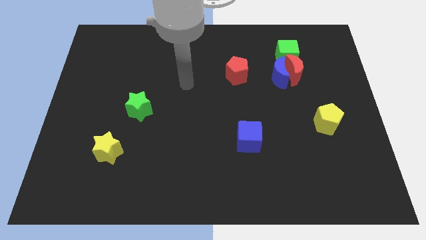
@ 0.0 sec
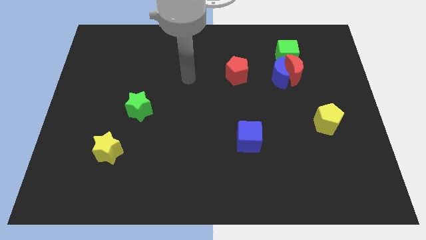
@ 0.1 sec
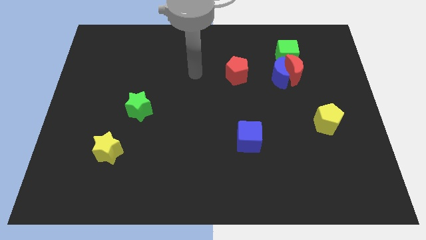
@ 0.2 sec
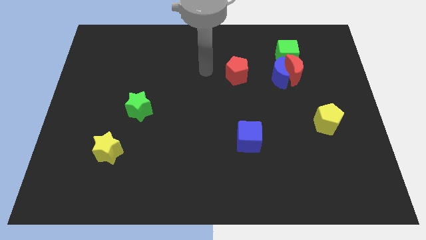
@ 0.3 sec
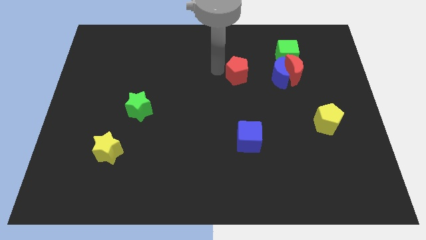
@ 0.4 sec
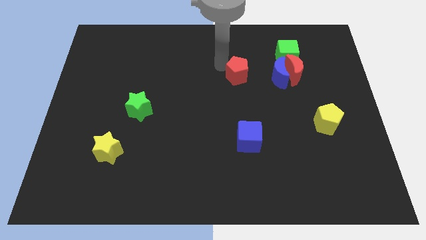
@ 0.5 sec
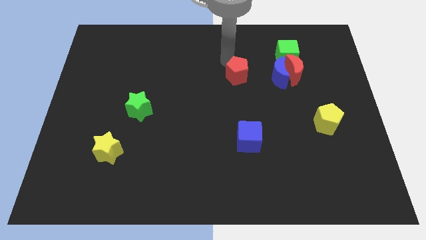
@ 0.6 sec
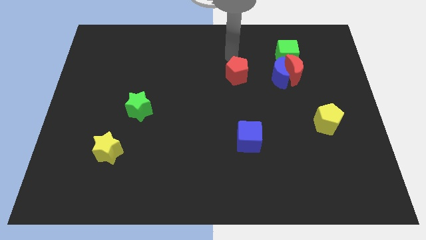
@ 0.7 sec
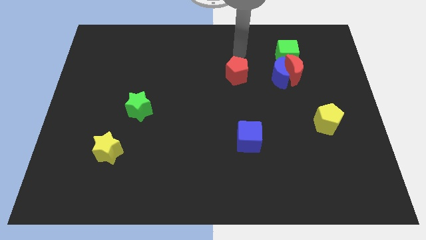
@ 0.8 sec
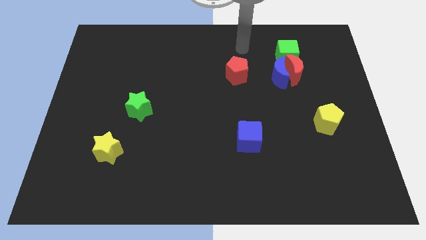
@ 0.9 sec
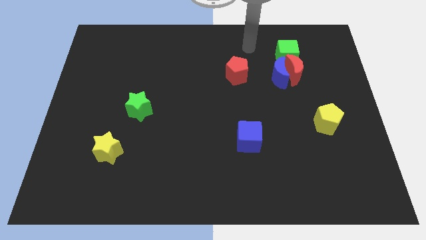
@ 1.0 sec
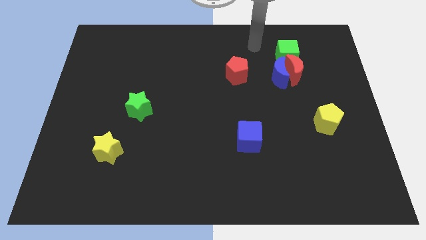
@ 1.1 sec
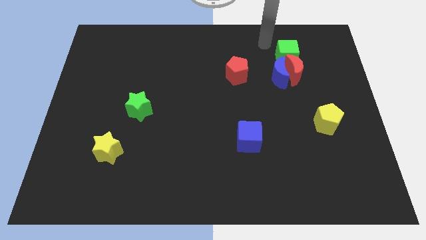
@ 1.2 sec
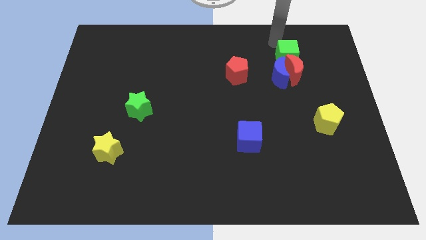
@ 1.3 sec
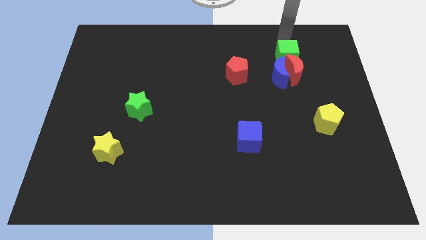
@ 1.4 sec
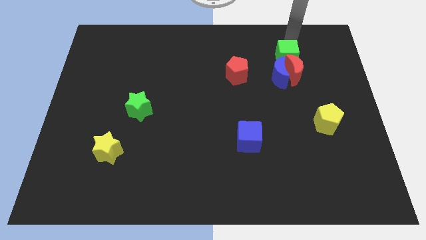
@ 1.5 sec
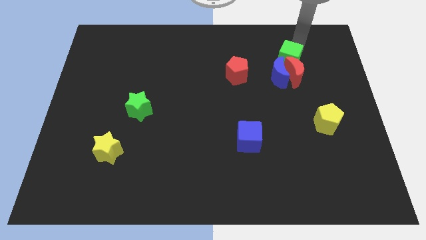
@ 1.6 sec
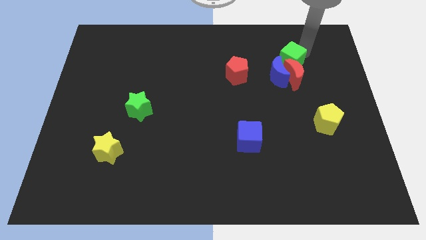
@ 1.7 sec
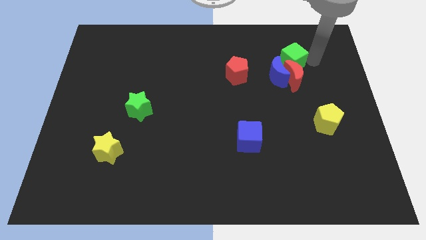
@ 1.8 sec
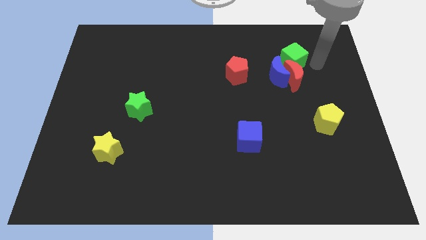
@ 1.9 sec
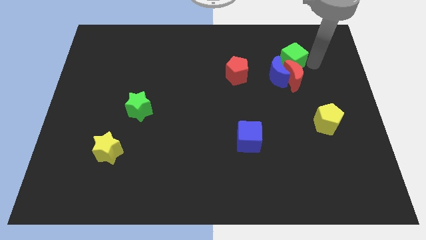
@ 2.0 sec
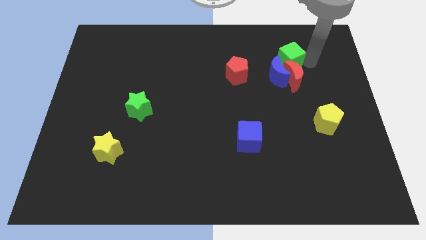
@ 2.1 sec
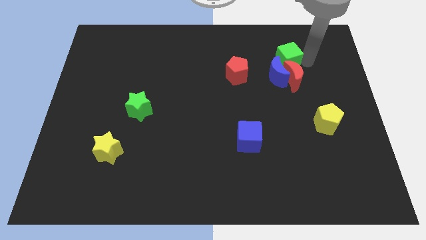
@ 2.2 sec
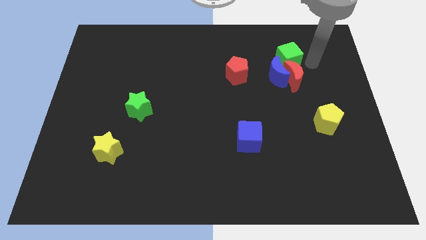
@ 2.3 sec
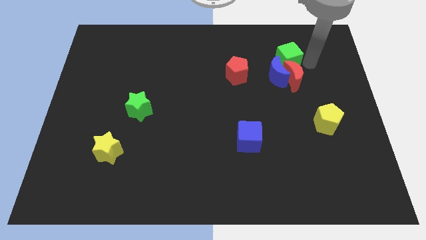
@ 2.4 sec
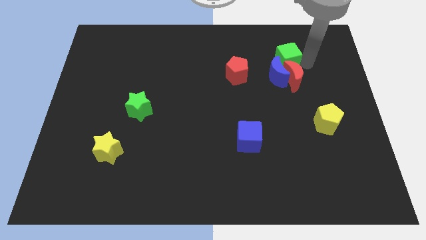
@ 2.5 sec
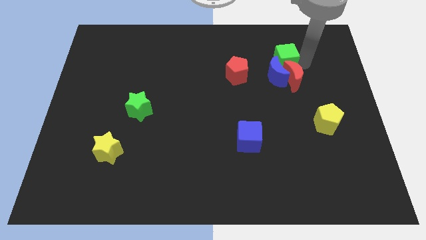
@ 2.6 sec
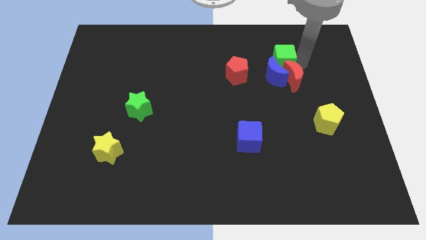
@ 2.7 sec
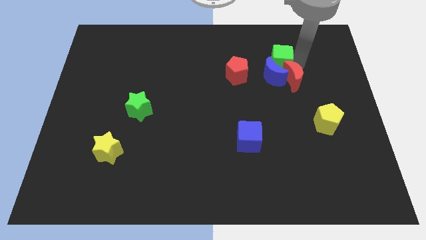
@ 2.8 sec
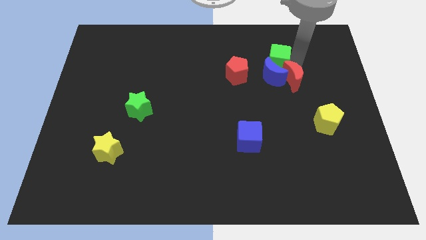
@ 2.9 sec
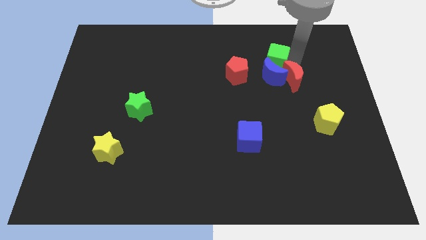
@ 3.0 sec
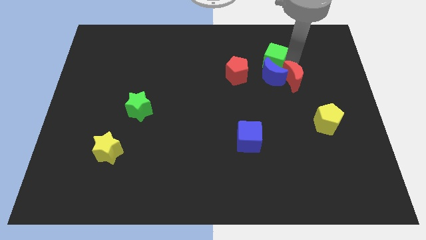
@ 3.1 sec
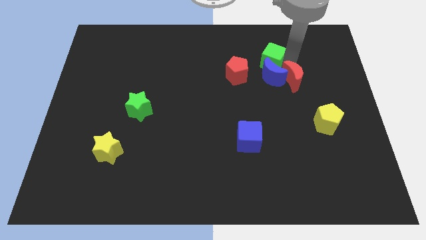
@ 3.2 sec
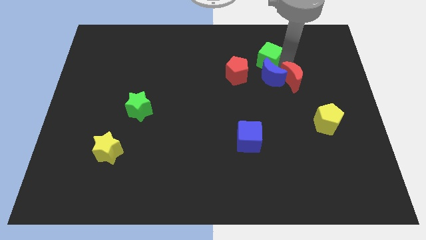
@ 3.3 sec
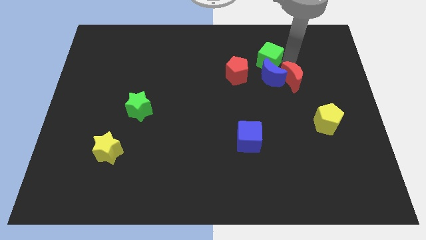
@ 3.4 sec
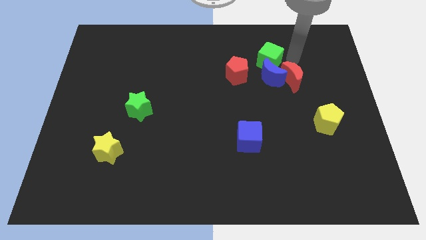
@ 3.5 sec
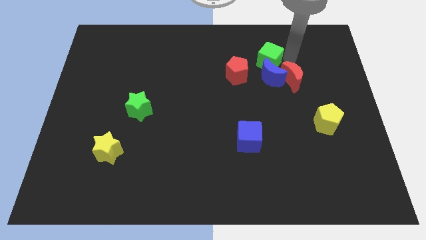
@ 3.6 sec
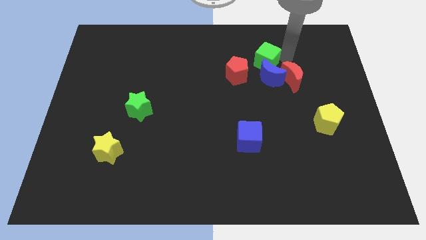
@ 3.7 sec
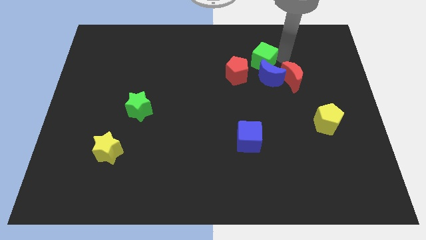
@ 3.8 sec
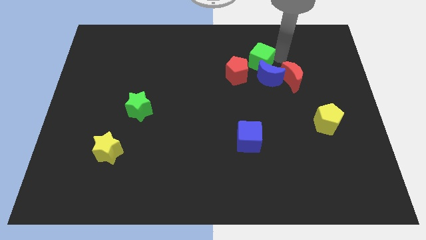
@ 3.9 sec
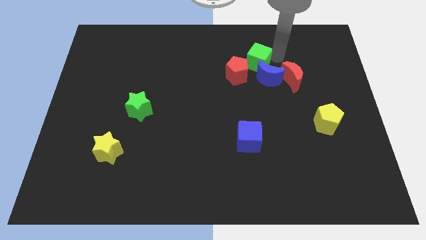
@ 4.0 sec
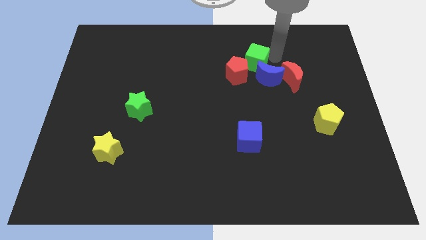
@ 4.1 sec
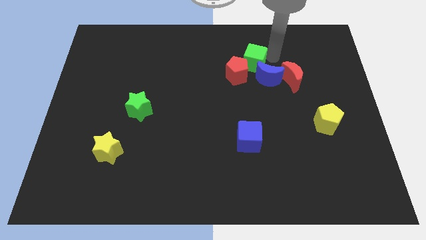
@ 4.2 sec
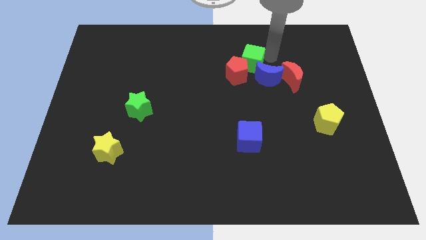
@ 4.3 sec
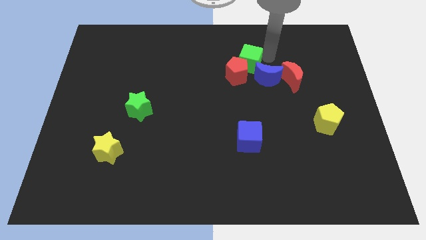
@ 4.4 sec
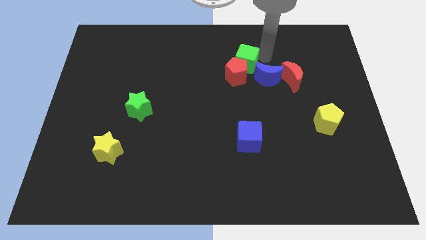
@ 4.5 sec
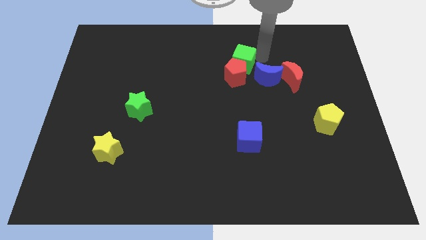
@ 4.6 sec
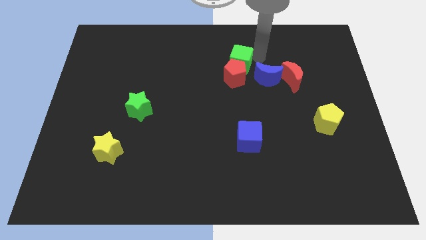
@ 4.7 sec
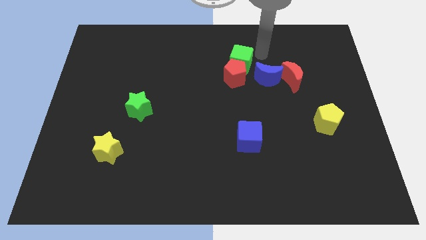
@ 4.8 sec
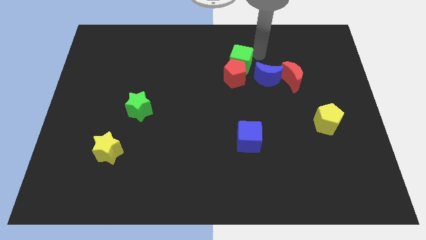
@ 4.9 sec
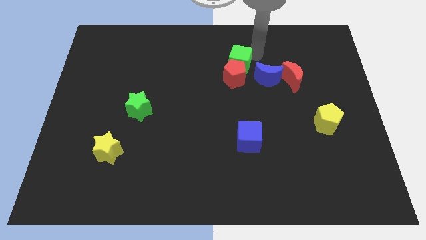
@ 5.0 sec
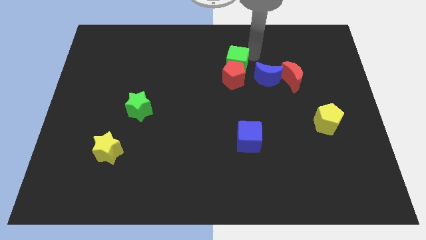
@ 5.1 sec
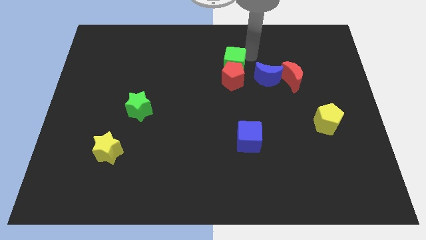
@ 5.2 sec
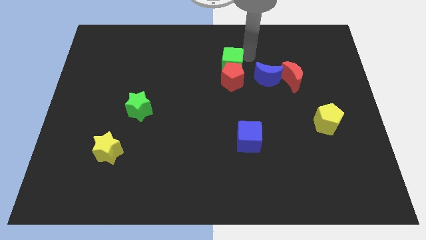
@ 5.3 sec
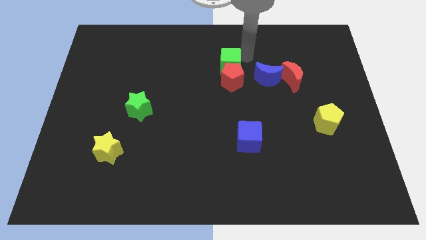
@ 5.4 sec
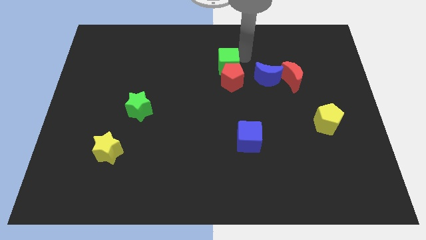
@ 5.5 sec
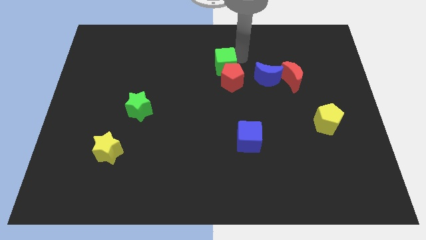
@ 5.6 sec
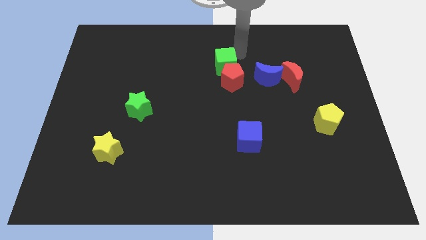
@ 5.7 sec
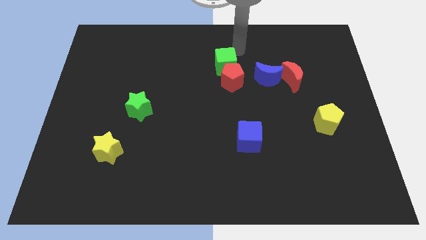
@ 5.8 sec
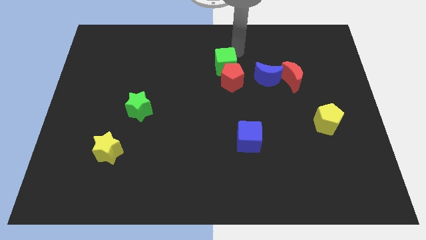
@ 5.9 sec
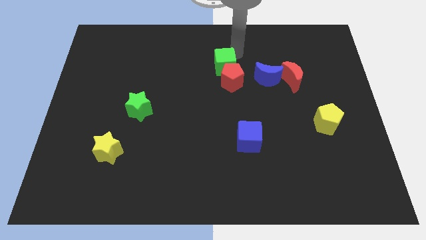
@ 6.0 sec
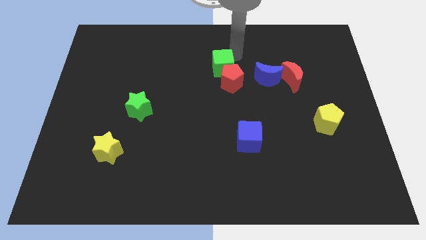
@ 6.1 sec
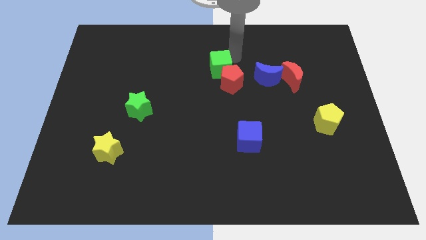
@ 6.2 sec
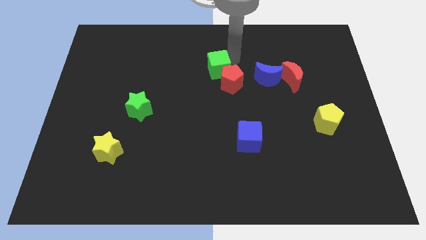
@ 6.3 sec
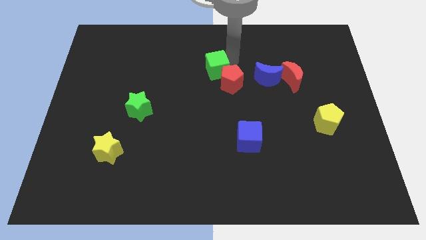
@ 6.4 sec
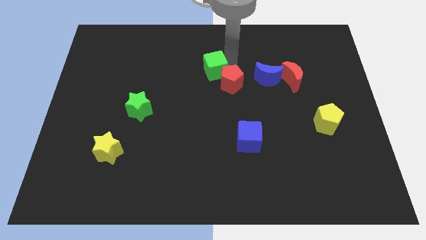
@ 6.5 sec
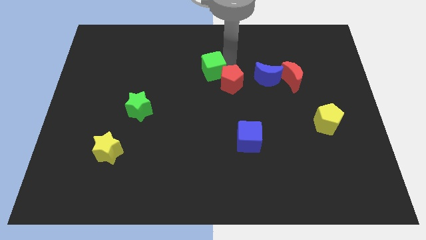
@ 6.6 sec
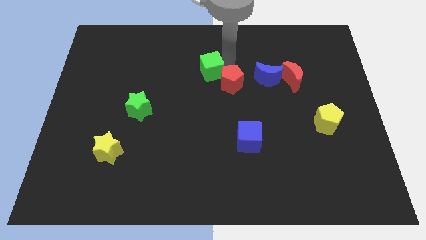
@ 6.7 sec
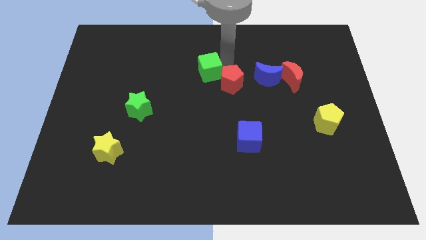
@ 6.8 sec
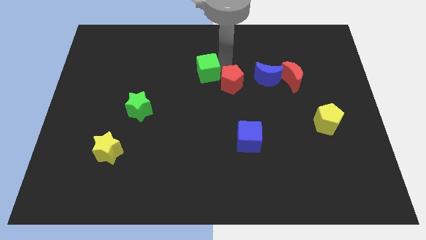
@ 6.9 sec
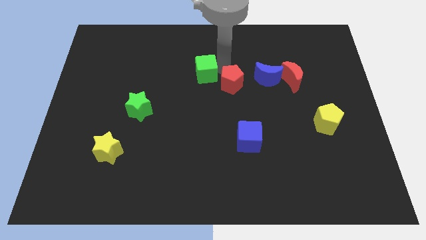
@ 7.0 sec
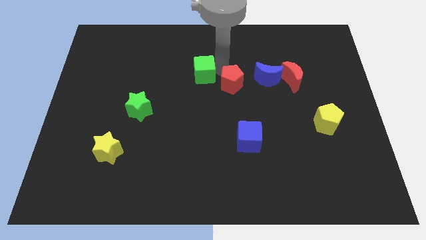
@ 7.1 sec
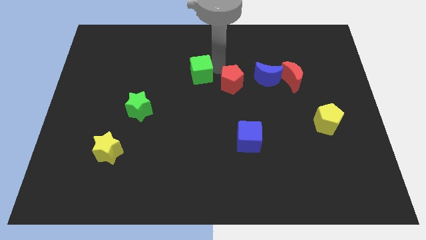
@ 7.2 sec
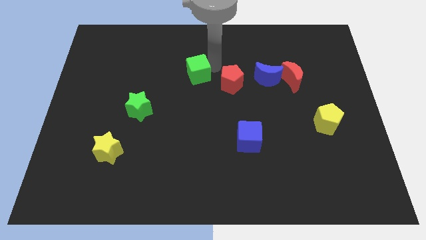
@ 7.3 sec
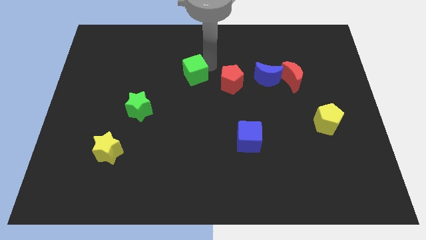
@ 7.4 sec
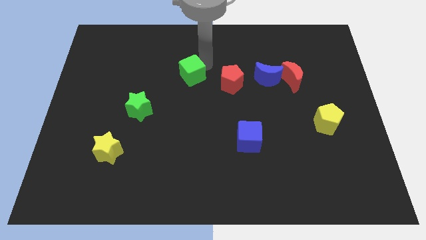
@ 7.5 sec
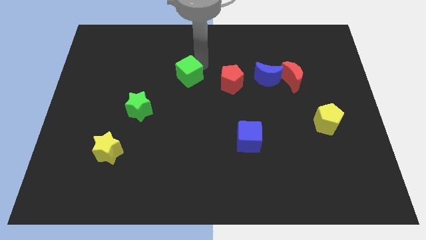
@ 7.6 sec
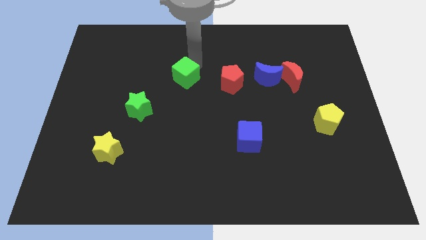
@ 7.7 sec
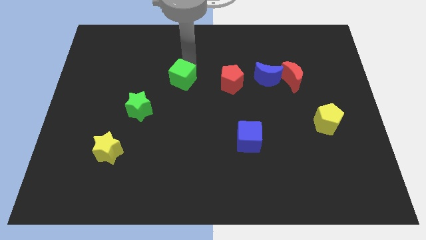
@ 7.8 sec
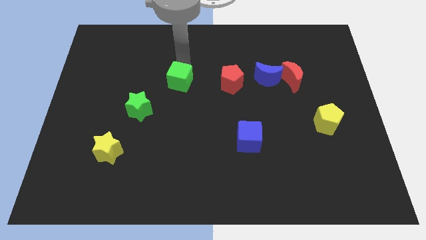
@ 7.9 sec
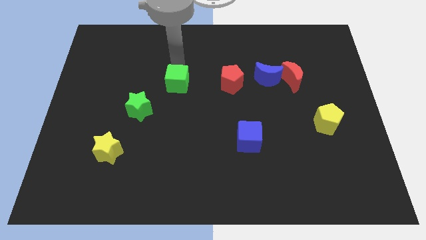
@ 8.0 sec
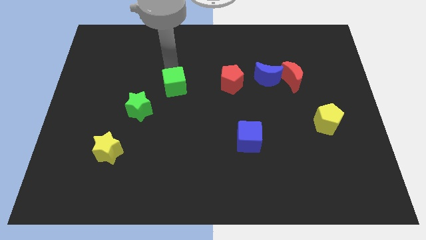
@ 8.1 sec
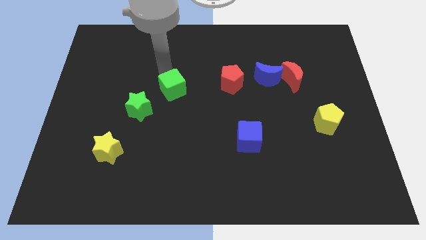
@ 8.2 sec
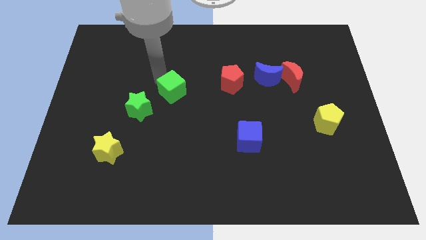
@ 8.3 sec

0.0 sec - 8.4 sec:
move the green cube downwards and to the left
